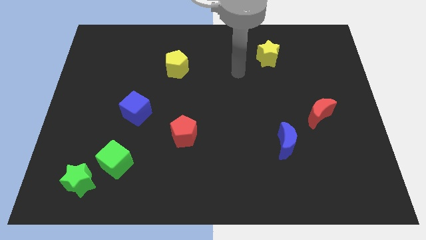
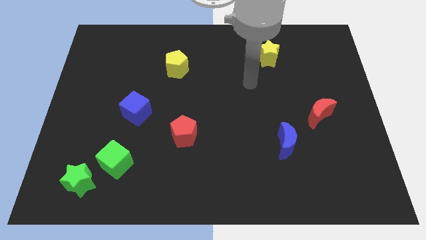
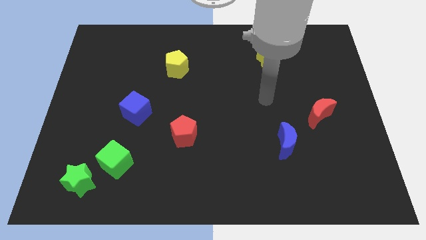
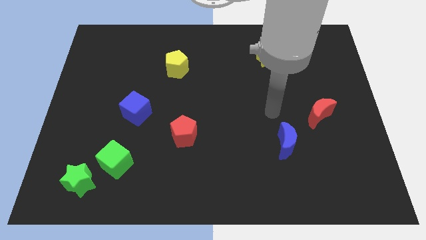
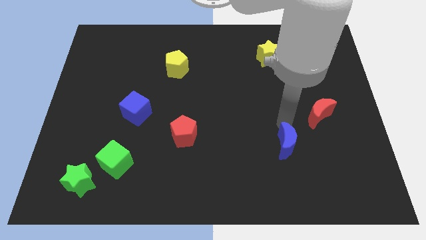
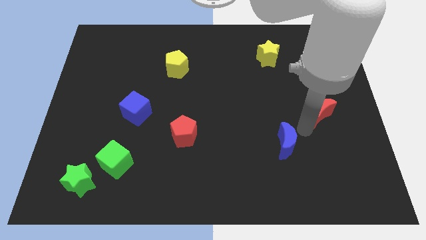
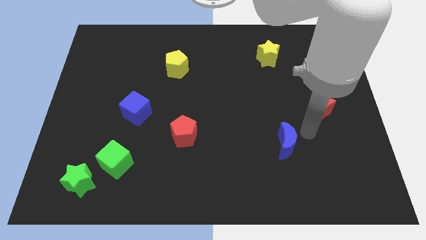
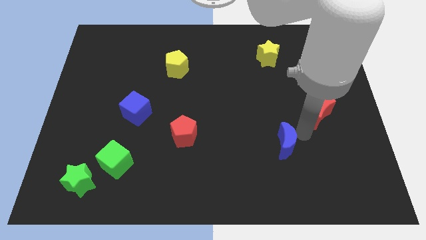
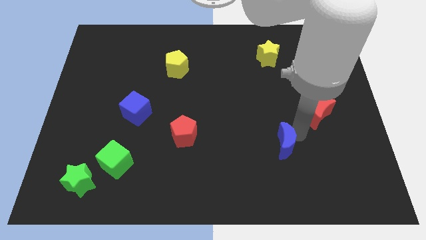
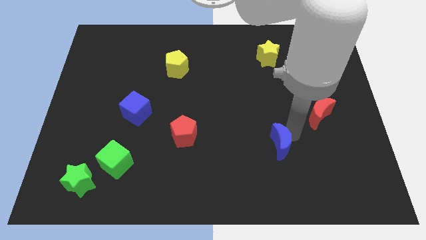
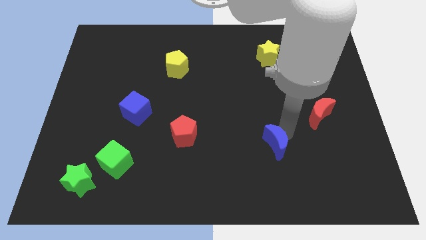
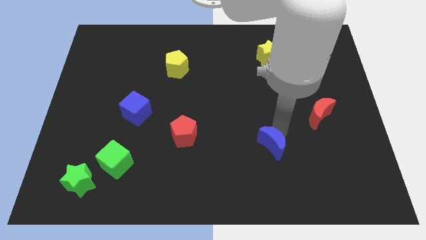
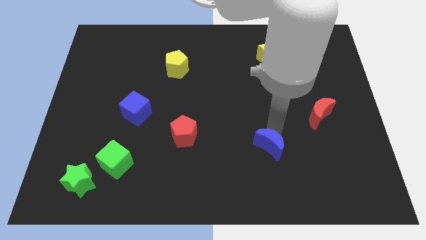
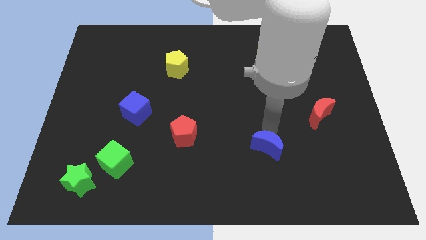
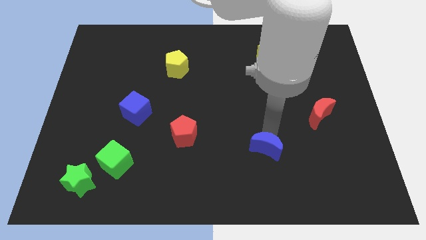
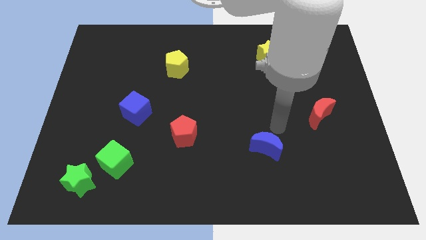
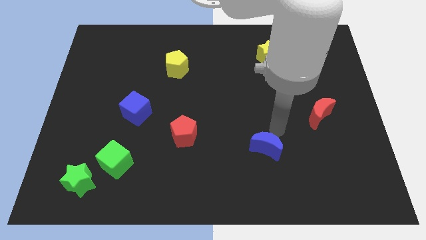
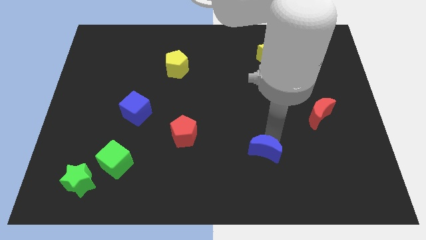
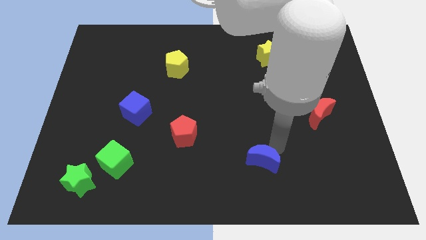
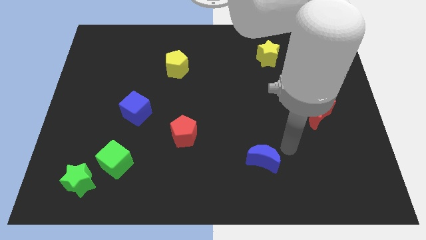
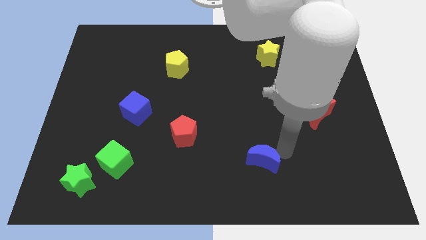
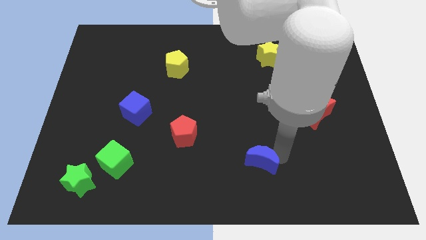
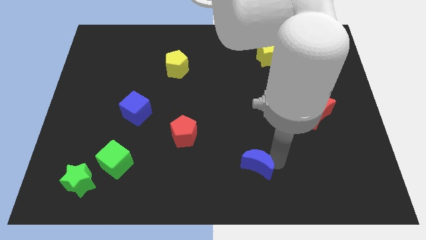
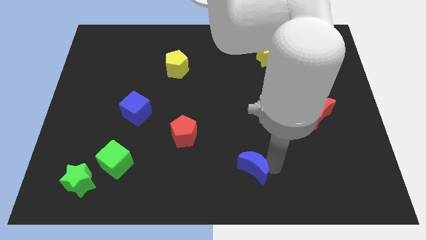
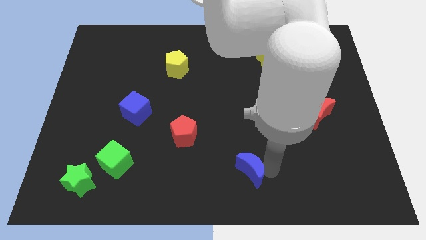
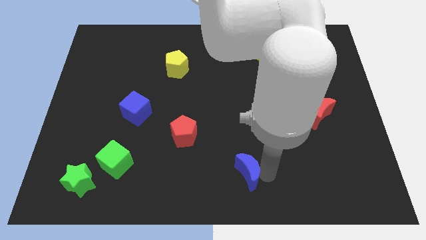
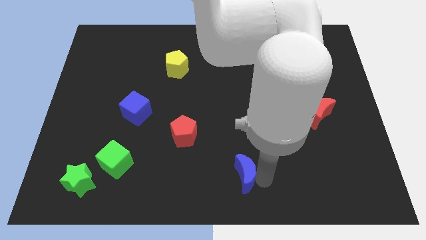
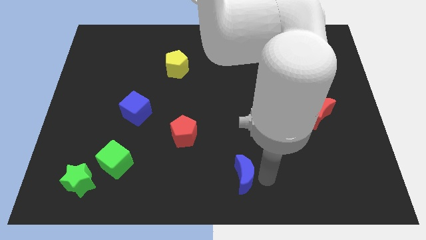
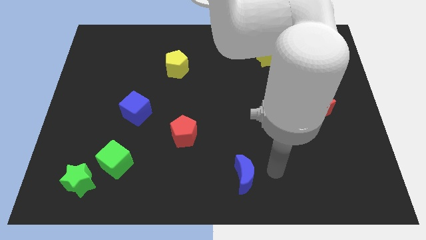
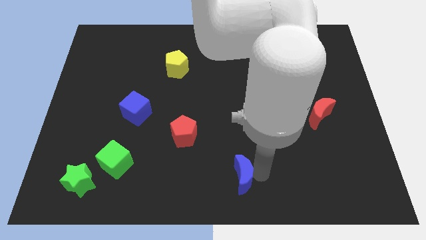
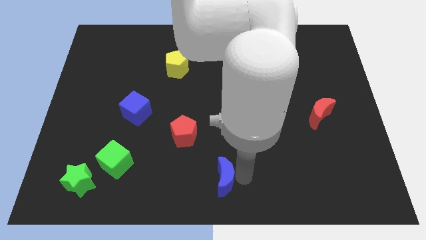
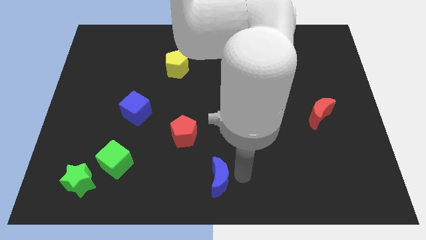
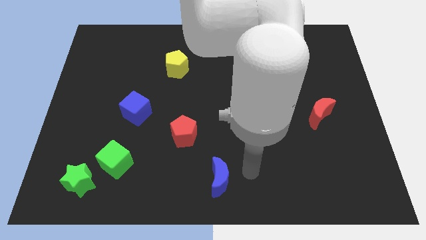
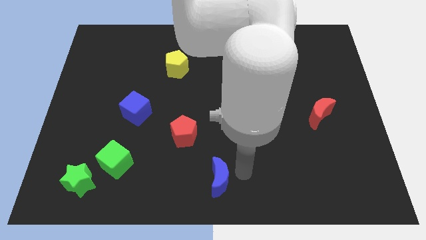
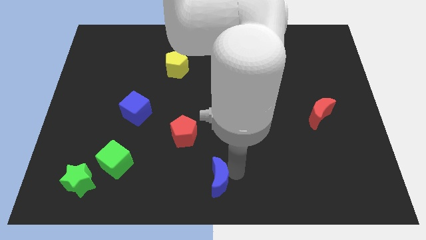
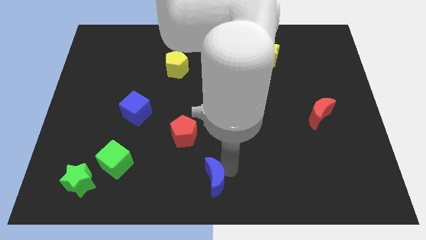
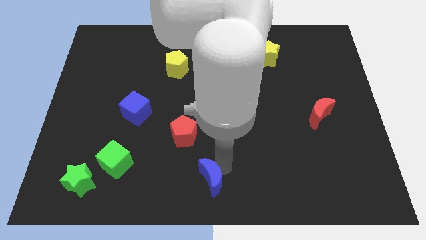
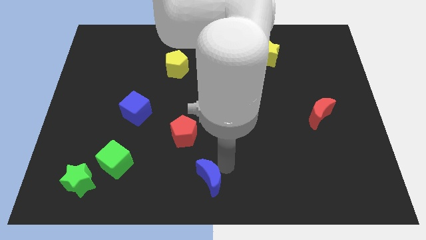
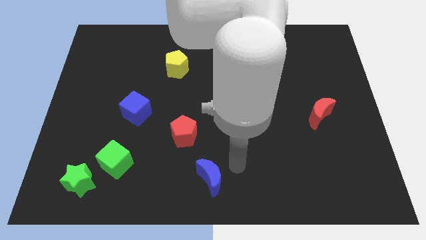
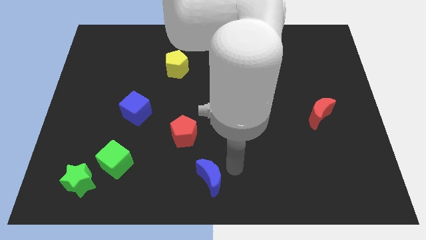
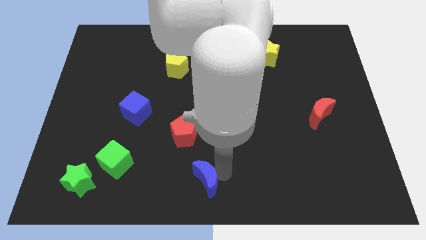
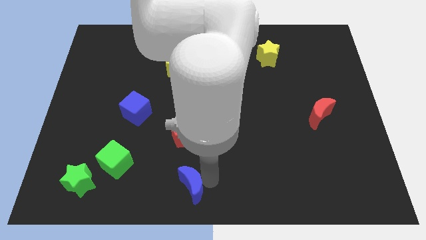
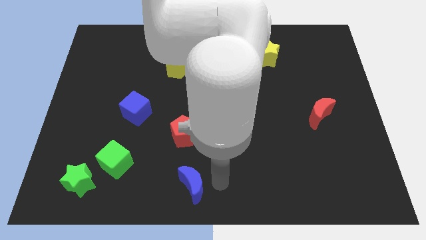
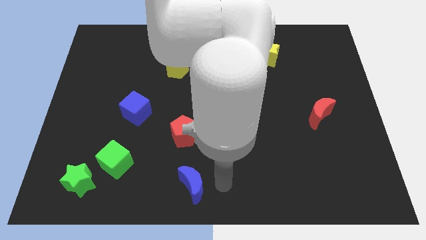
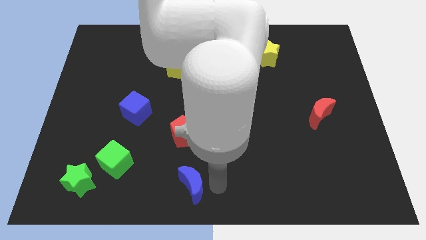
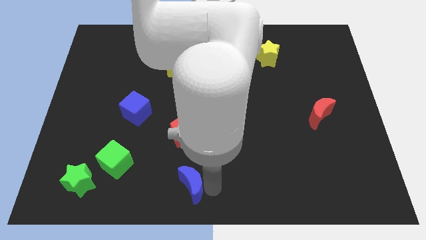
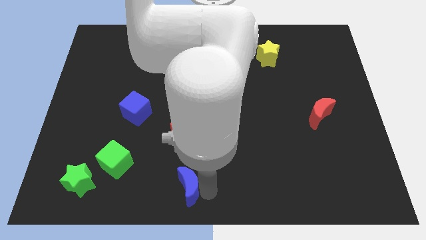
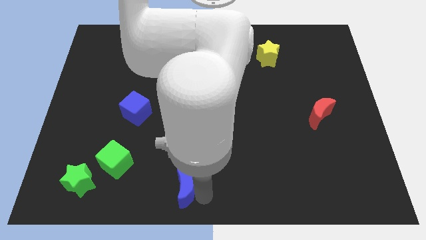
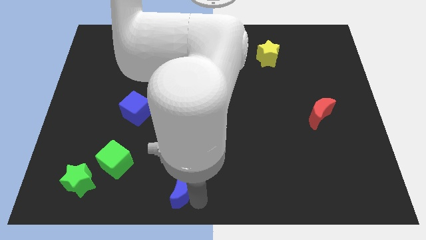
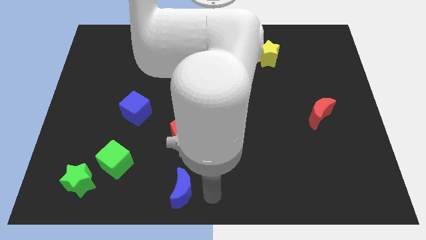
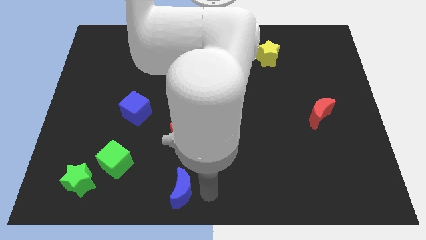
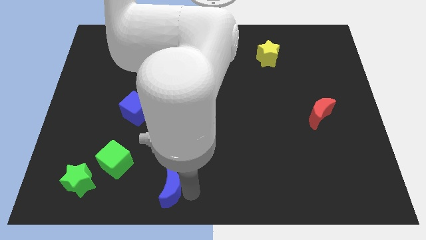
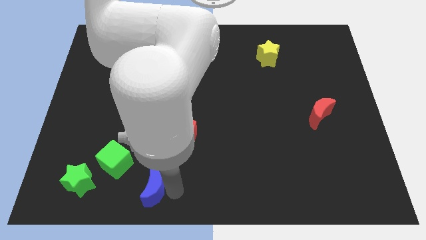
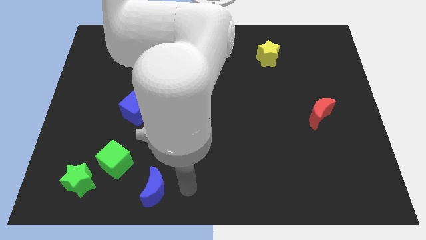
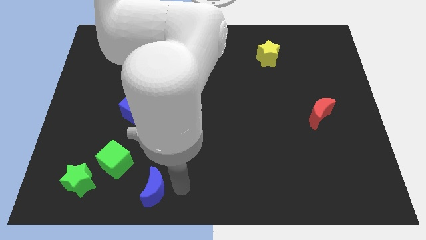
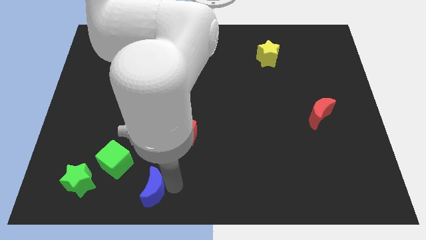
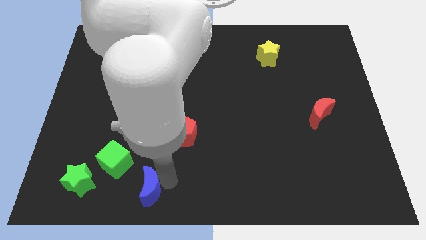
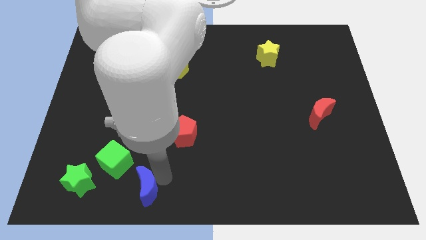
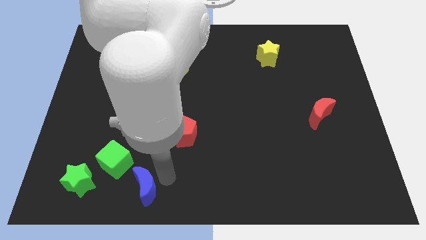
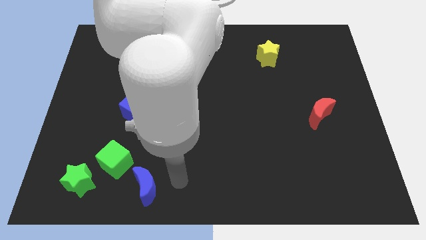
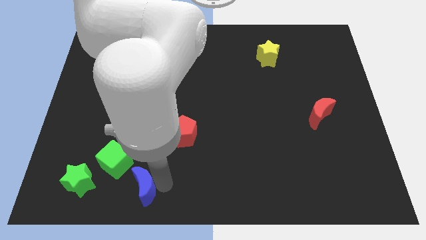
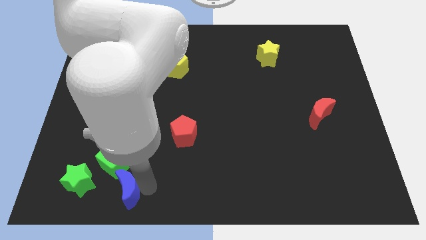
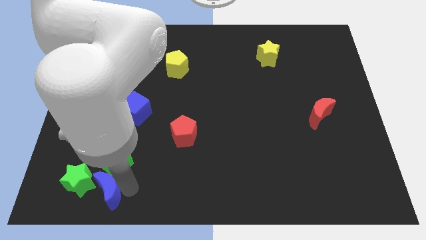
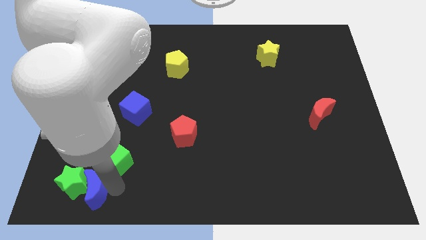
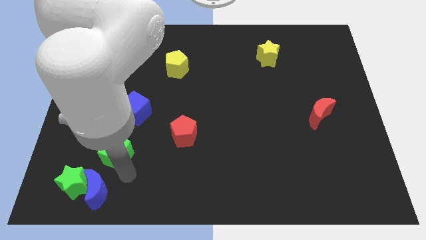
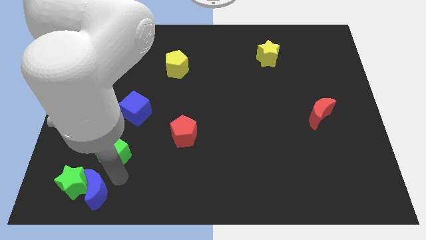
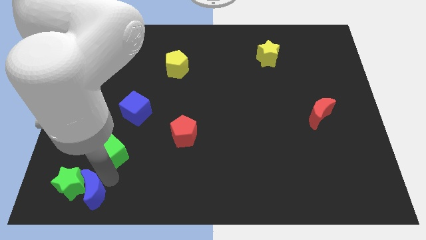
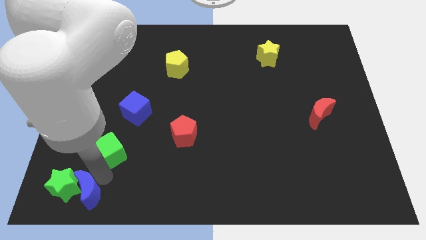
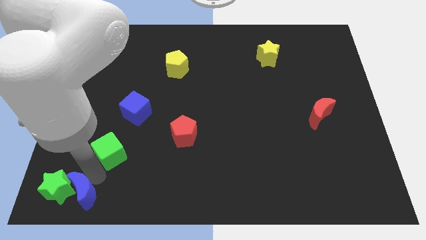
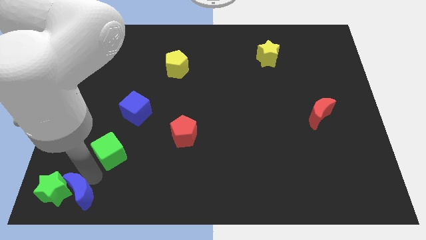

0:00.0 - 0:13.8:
push the blue moon to the bottom left
